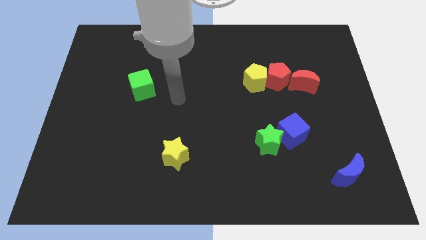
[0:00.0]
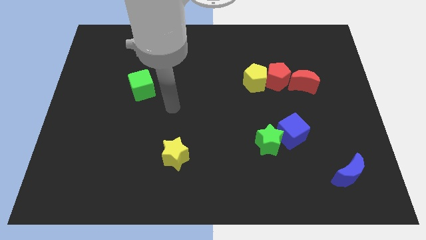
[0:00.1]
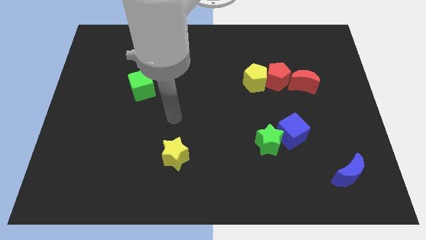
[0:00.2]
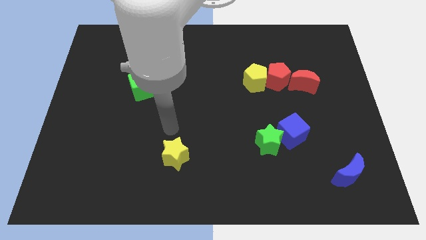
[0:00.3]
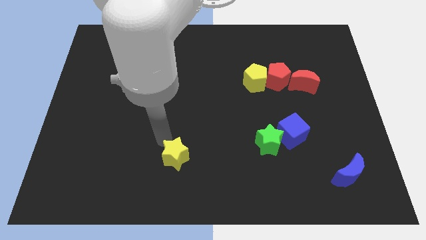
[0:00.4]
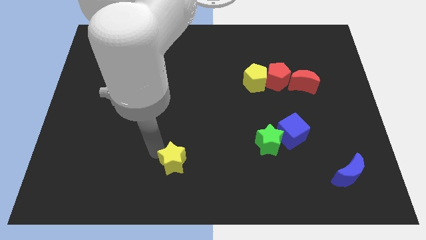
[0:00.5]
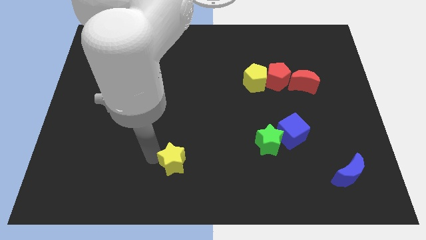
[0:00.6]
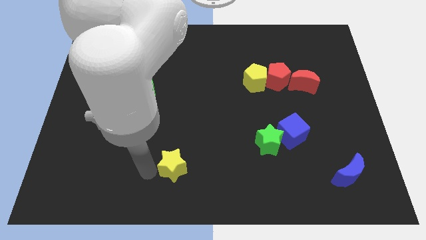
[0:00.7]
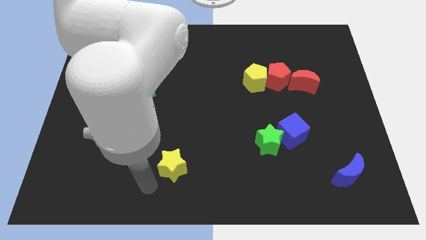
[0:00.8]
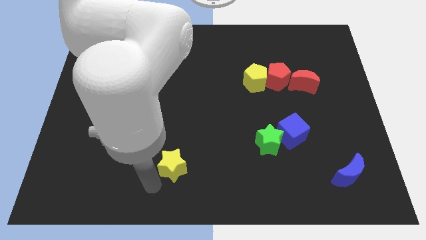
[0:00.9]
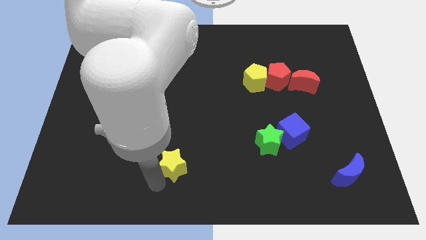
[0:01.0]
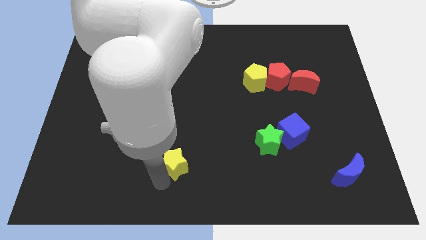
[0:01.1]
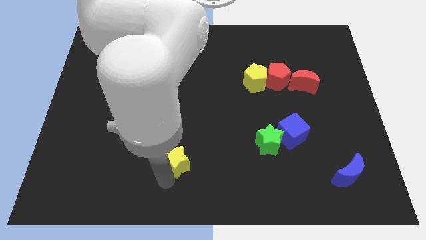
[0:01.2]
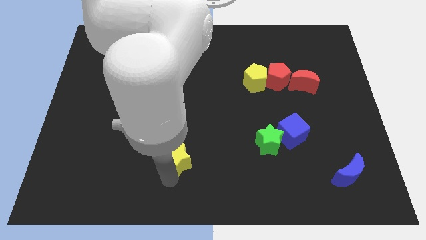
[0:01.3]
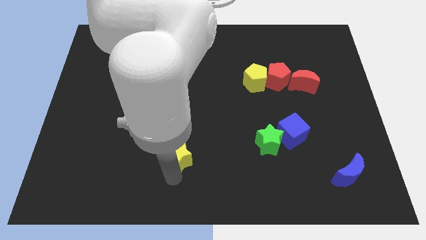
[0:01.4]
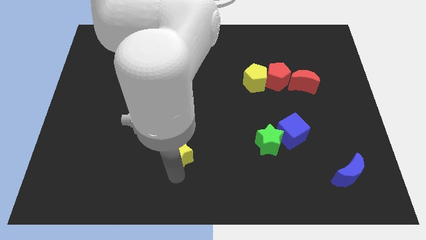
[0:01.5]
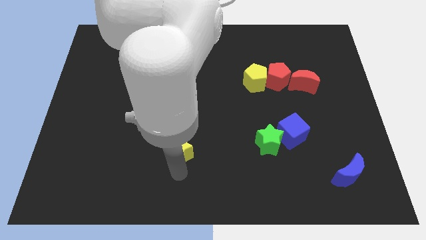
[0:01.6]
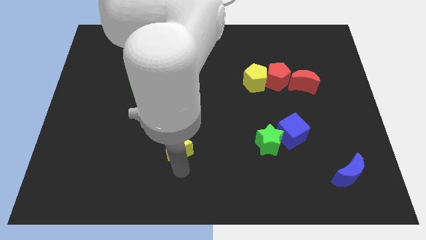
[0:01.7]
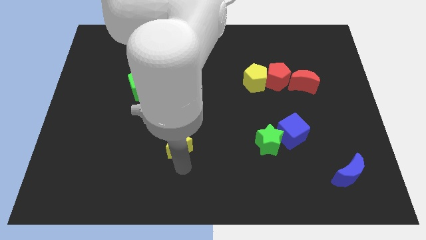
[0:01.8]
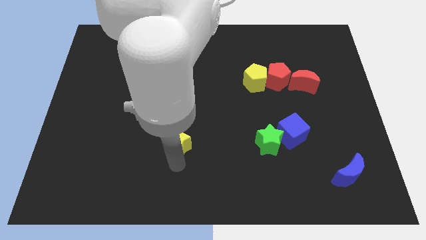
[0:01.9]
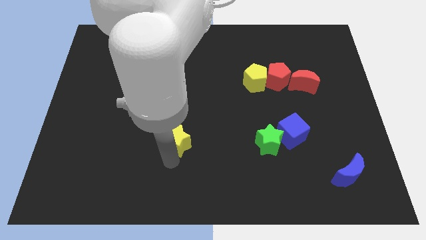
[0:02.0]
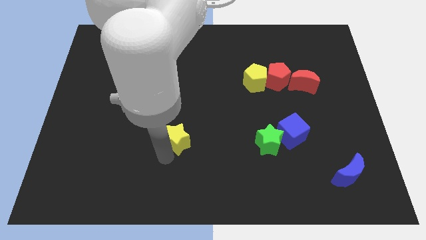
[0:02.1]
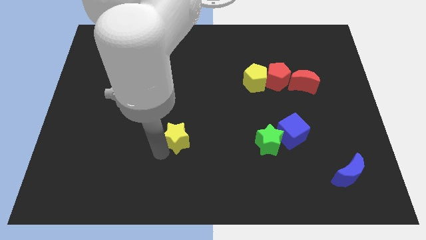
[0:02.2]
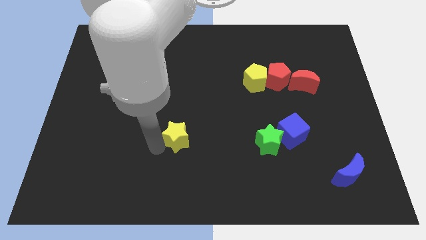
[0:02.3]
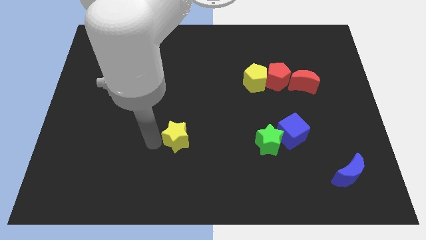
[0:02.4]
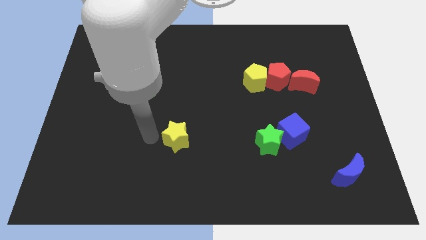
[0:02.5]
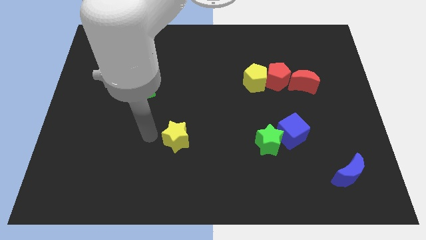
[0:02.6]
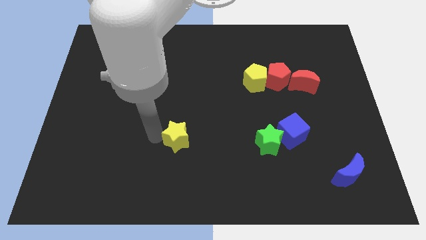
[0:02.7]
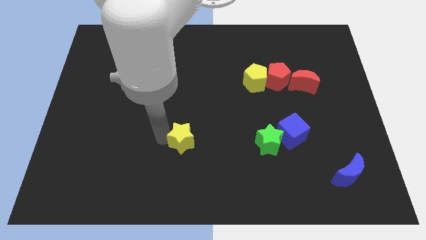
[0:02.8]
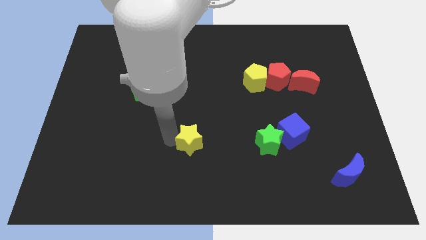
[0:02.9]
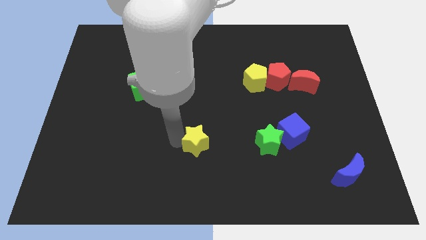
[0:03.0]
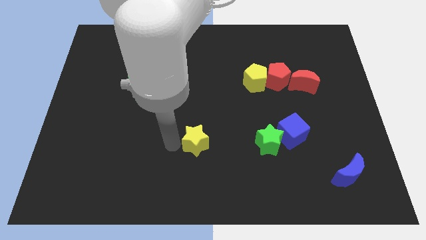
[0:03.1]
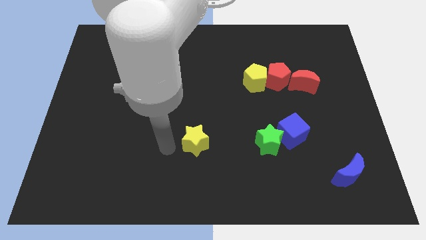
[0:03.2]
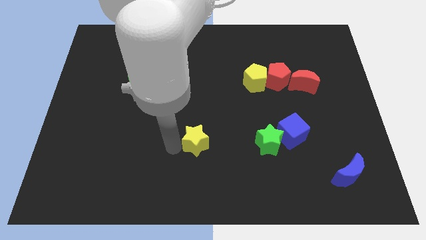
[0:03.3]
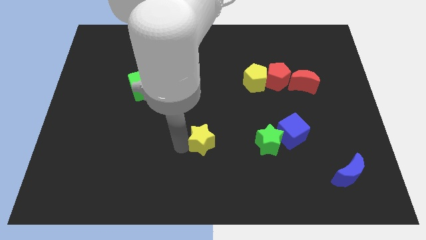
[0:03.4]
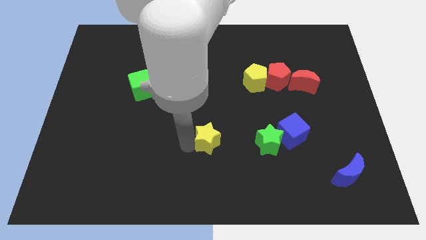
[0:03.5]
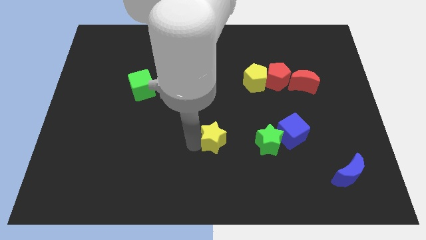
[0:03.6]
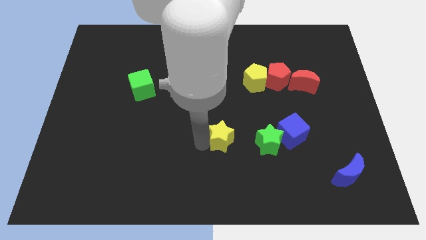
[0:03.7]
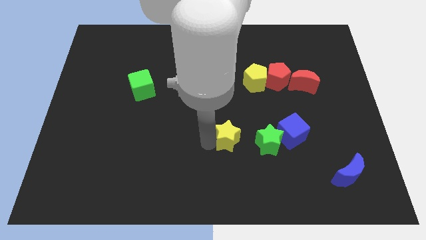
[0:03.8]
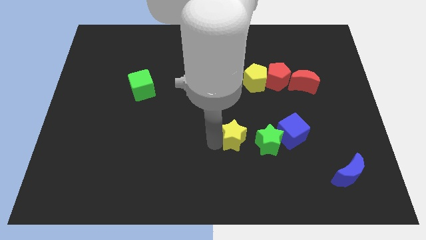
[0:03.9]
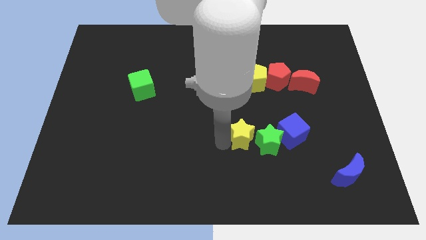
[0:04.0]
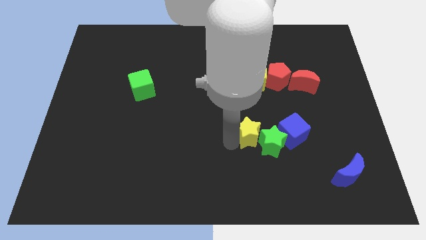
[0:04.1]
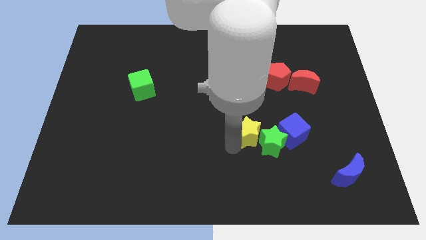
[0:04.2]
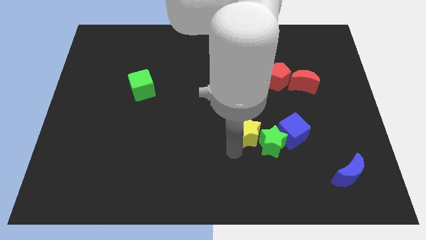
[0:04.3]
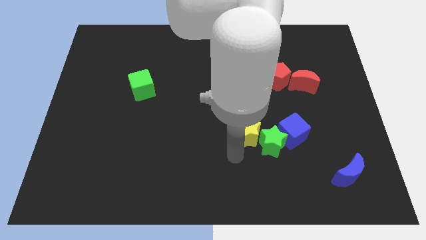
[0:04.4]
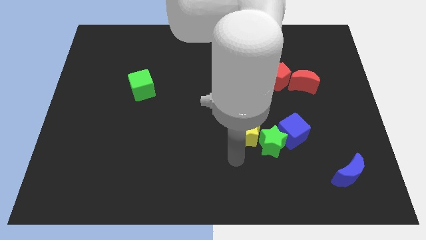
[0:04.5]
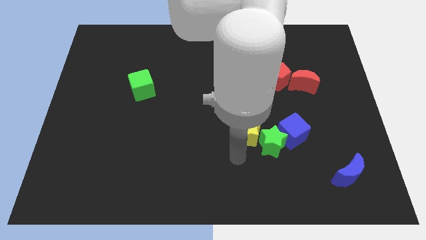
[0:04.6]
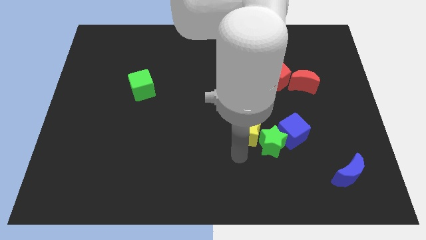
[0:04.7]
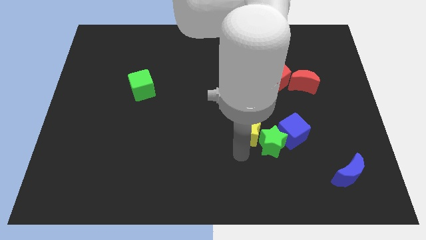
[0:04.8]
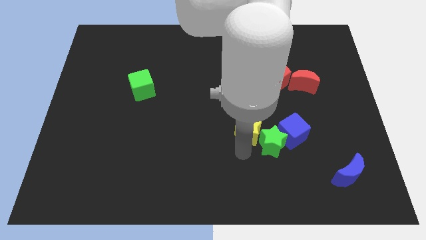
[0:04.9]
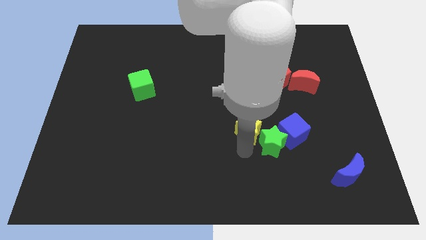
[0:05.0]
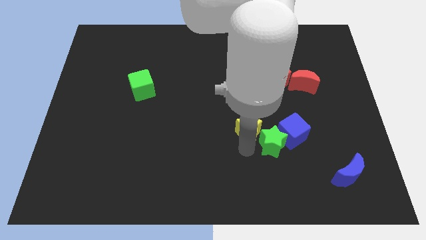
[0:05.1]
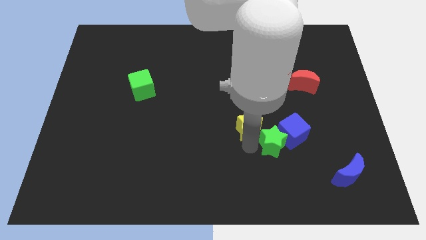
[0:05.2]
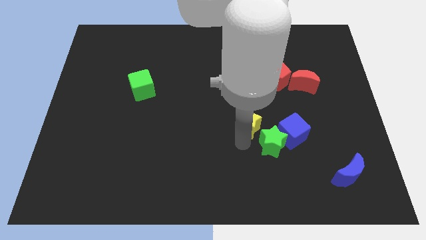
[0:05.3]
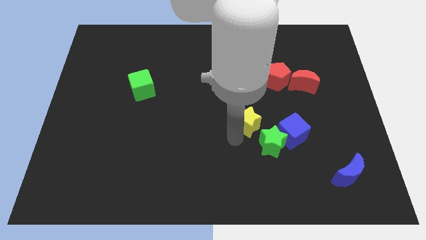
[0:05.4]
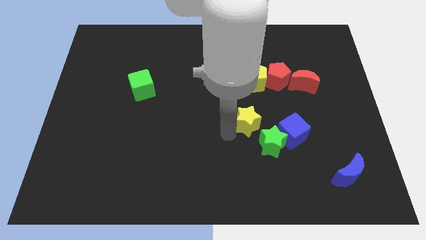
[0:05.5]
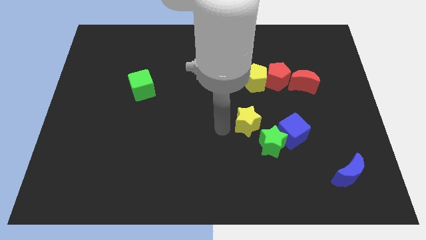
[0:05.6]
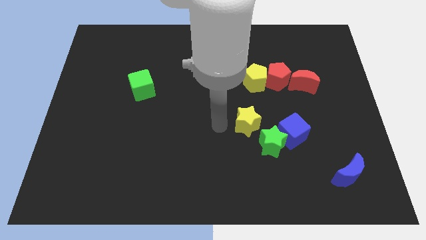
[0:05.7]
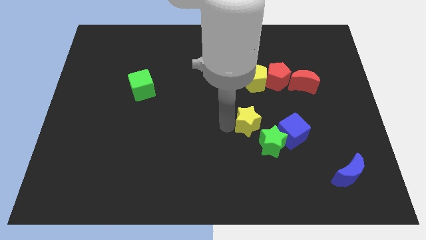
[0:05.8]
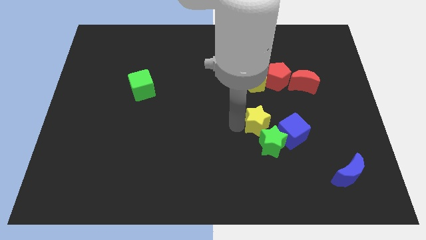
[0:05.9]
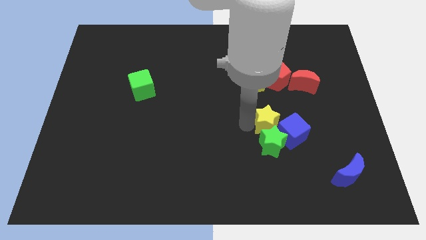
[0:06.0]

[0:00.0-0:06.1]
put the yellow star diagonally up and to the right of the green star

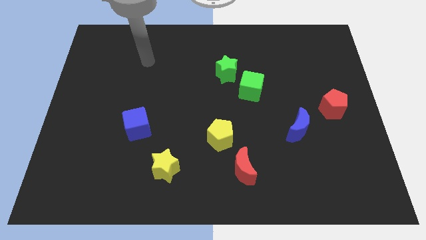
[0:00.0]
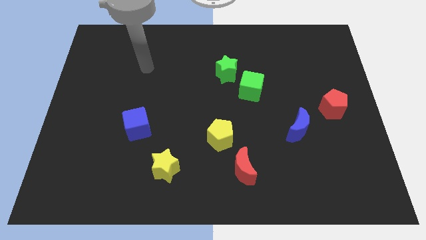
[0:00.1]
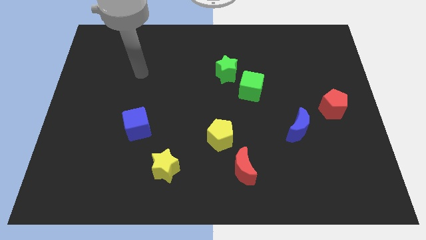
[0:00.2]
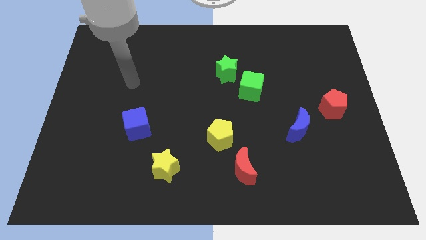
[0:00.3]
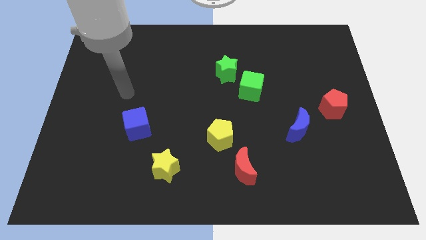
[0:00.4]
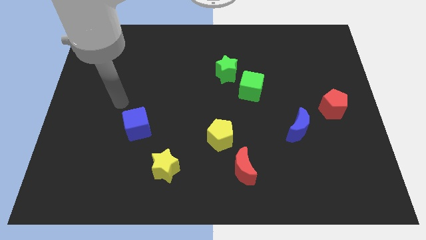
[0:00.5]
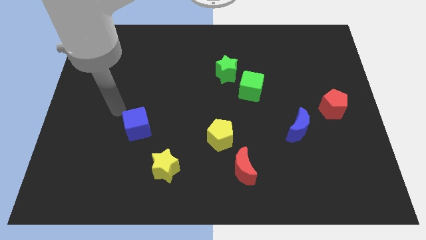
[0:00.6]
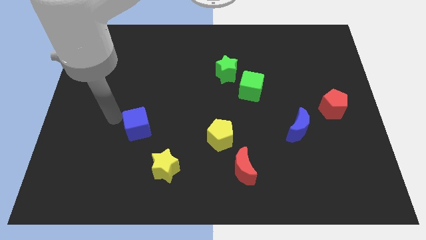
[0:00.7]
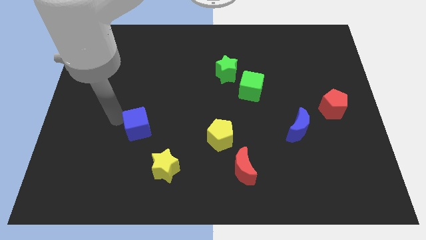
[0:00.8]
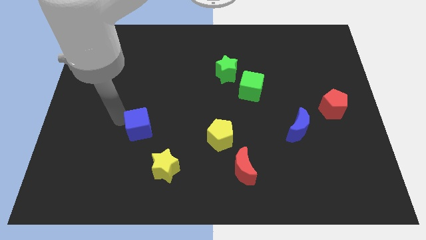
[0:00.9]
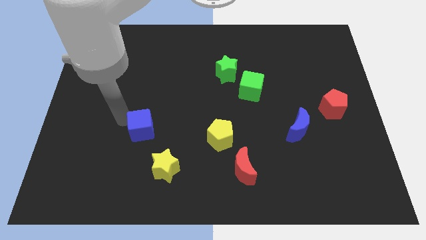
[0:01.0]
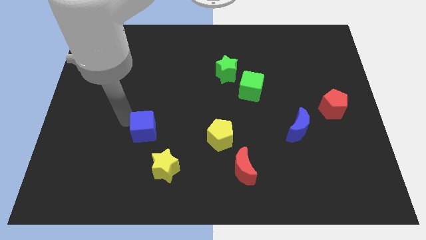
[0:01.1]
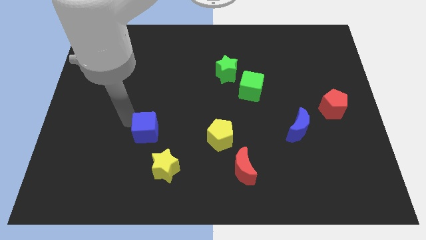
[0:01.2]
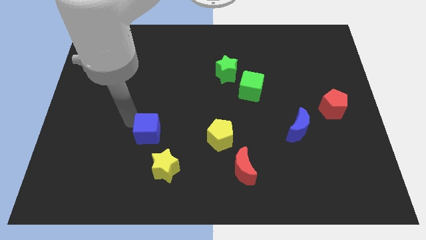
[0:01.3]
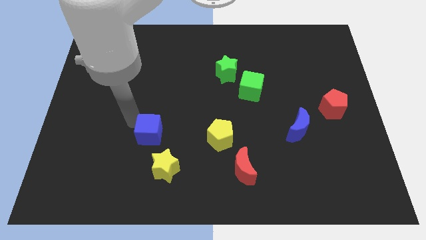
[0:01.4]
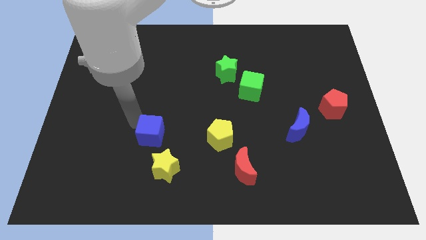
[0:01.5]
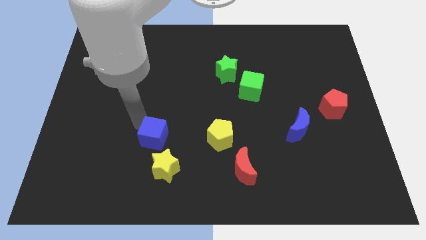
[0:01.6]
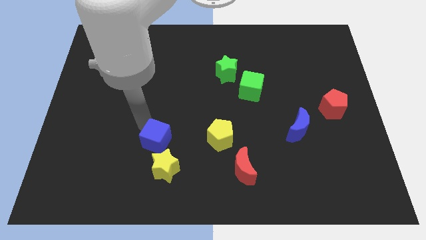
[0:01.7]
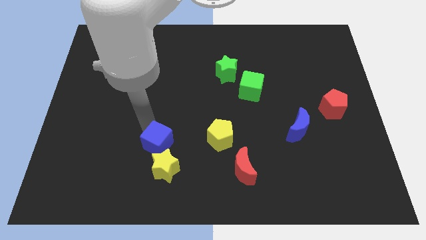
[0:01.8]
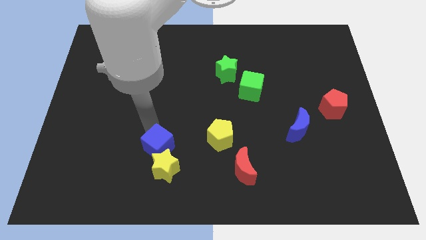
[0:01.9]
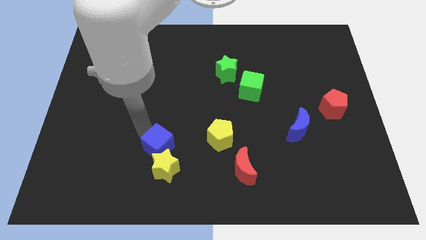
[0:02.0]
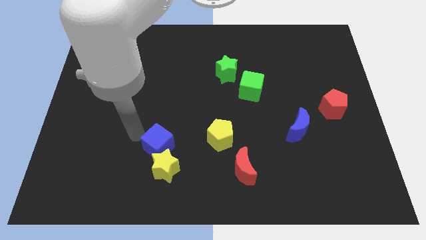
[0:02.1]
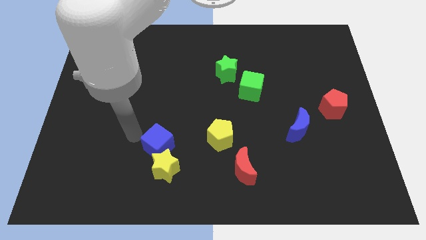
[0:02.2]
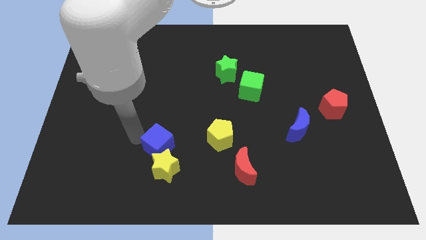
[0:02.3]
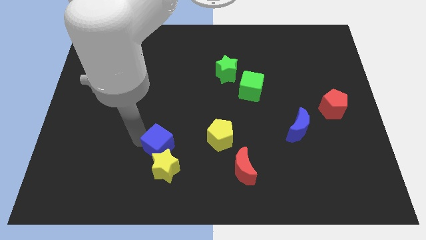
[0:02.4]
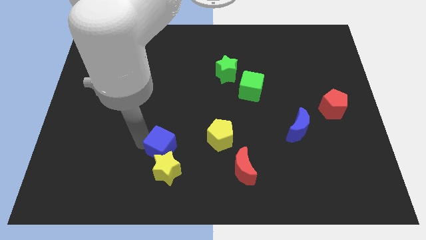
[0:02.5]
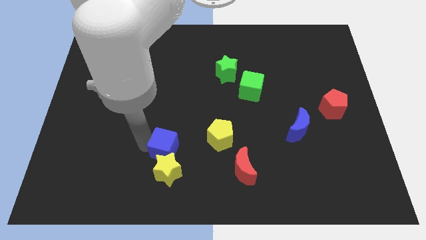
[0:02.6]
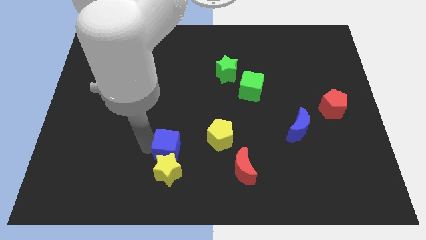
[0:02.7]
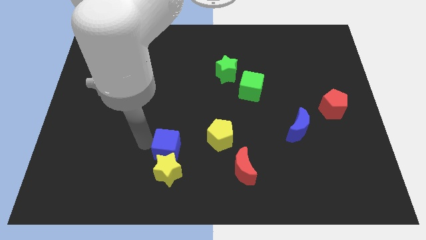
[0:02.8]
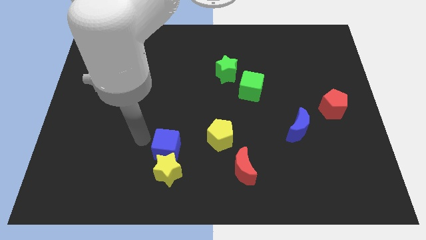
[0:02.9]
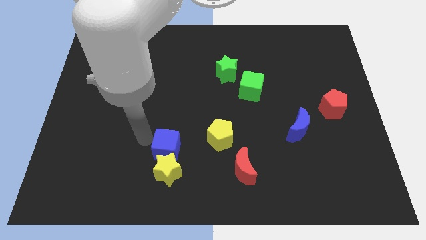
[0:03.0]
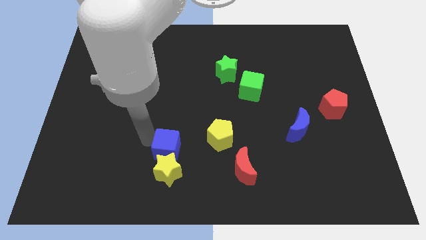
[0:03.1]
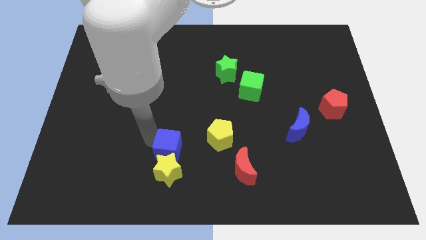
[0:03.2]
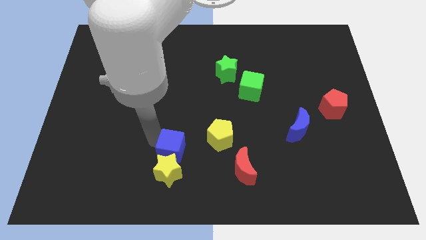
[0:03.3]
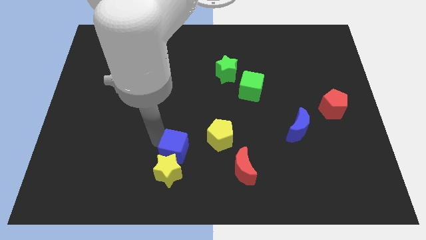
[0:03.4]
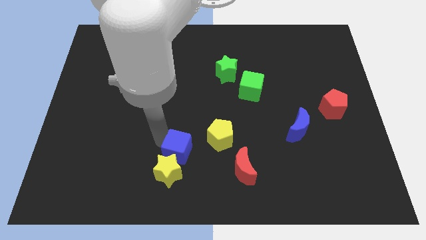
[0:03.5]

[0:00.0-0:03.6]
slide the blue cube diagonally down and to the left of the yellow pentagon
